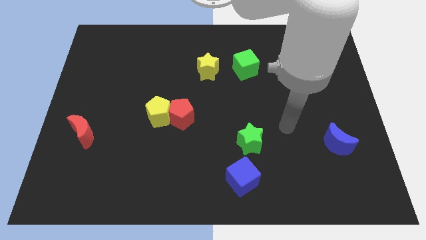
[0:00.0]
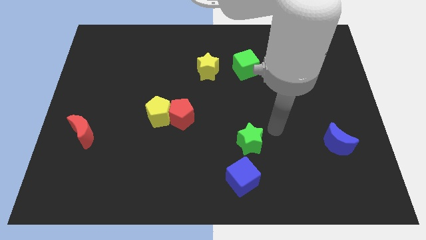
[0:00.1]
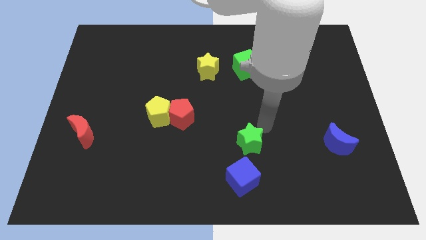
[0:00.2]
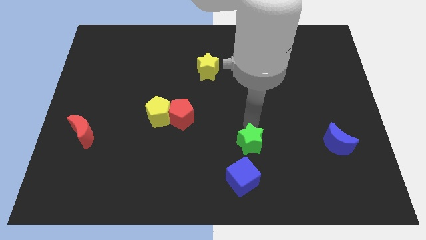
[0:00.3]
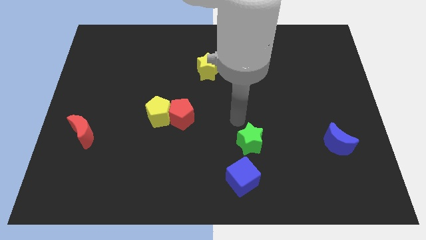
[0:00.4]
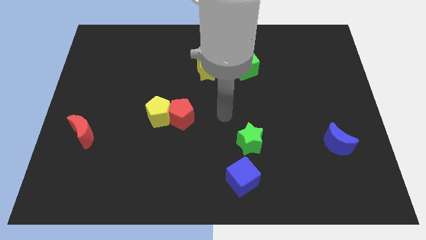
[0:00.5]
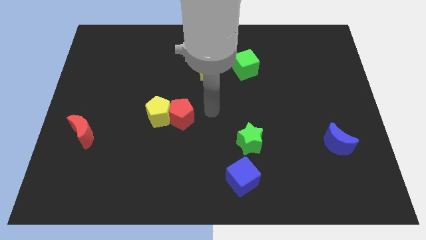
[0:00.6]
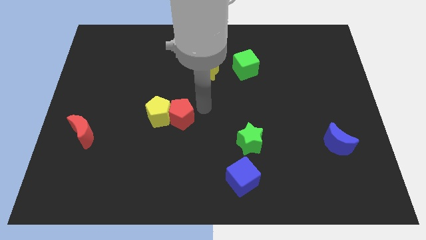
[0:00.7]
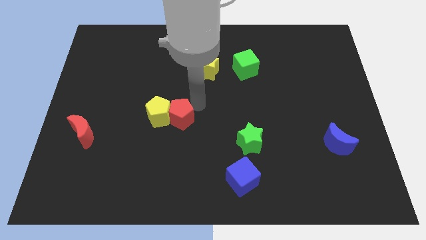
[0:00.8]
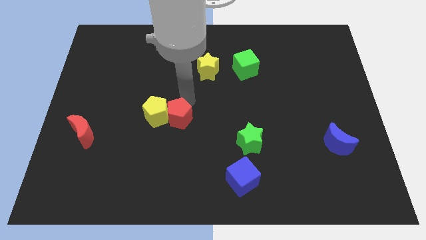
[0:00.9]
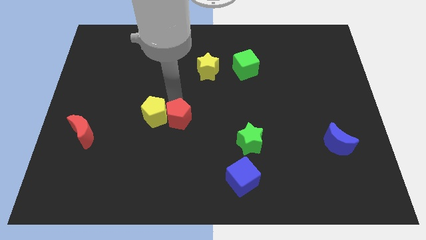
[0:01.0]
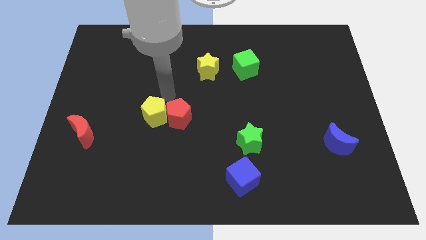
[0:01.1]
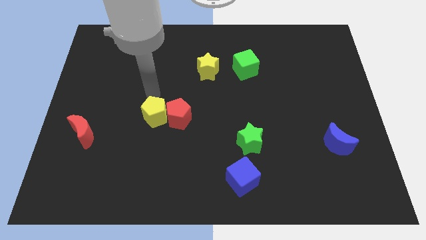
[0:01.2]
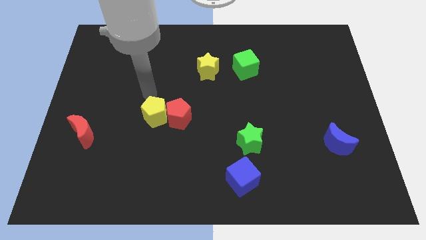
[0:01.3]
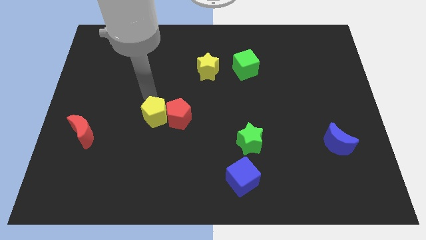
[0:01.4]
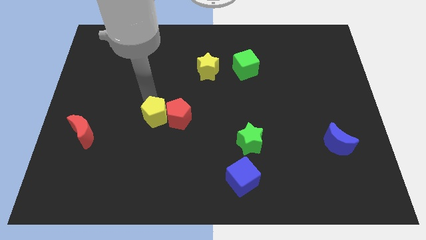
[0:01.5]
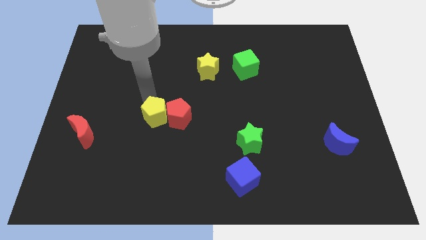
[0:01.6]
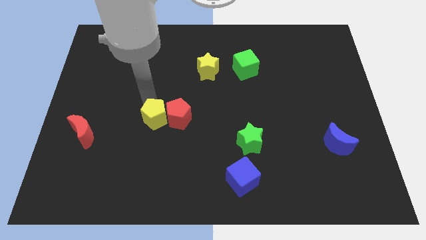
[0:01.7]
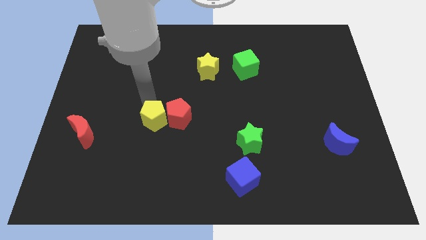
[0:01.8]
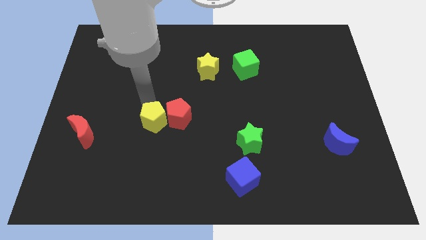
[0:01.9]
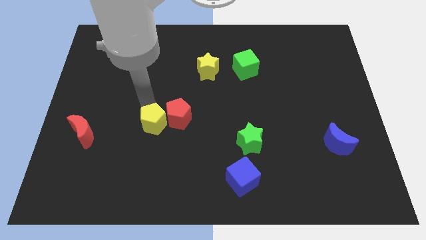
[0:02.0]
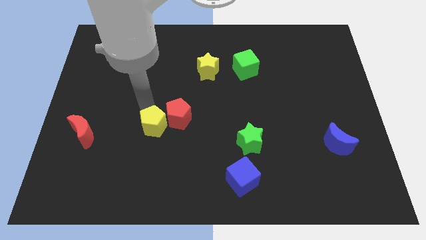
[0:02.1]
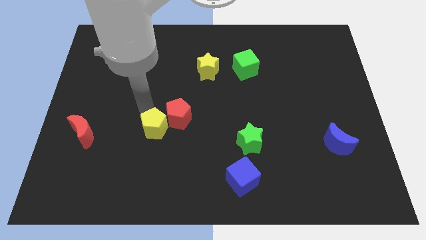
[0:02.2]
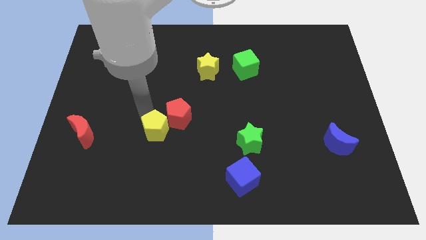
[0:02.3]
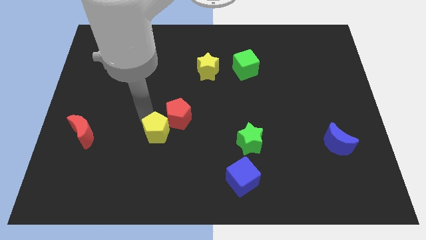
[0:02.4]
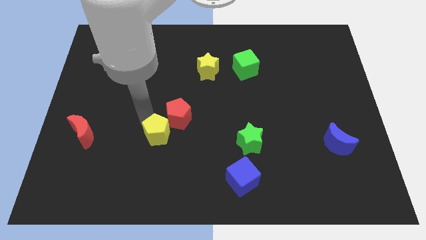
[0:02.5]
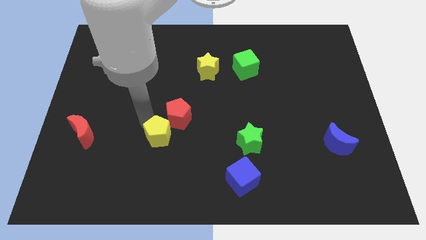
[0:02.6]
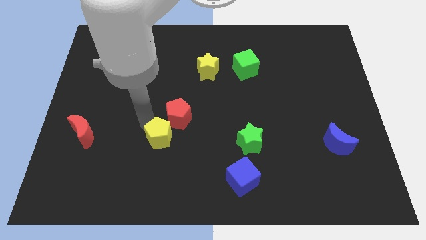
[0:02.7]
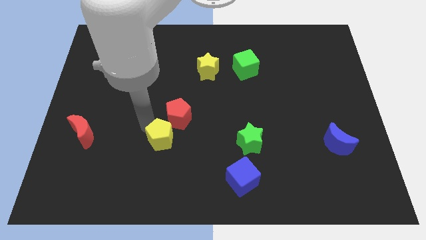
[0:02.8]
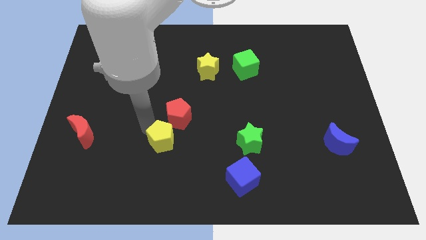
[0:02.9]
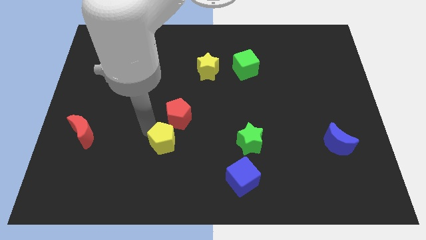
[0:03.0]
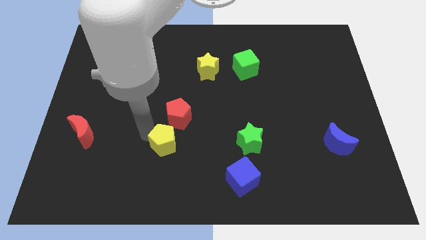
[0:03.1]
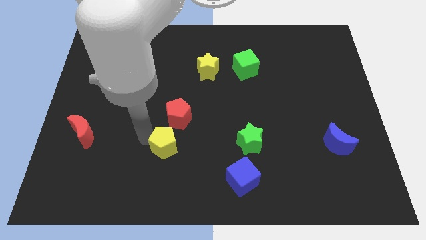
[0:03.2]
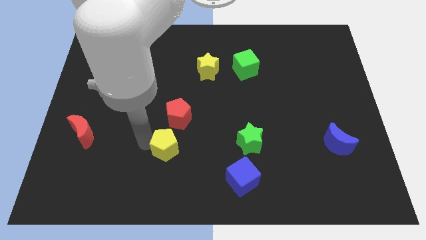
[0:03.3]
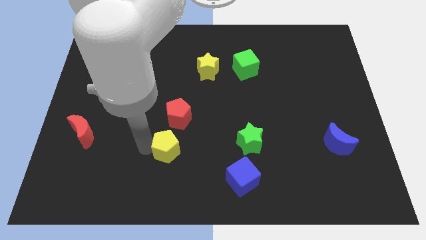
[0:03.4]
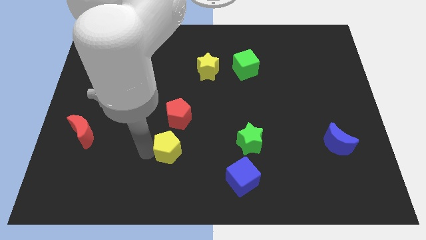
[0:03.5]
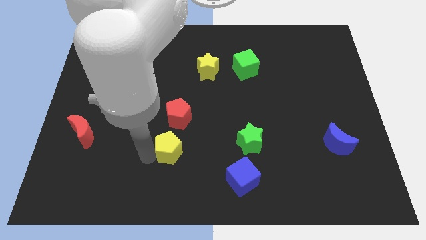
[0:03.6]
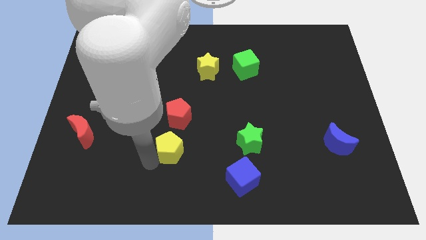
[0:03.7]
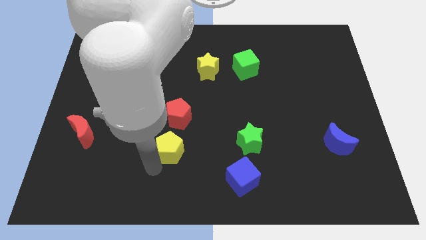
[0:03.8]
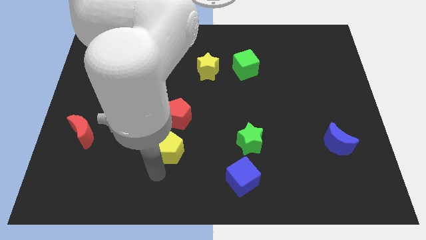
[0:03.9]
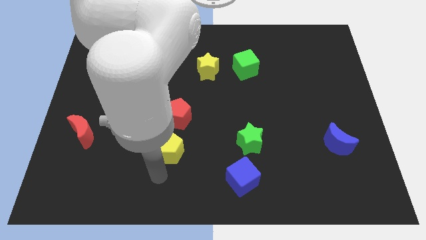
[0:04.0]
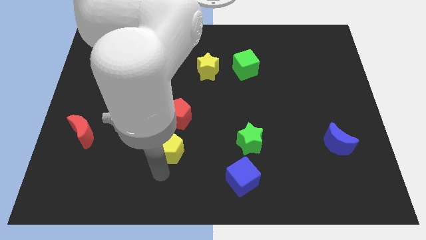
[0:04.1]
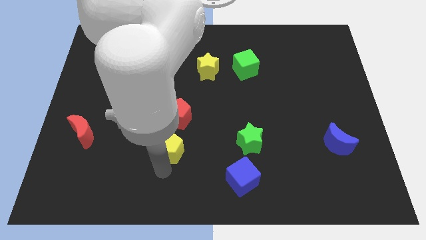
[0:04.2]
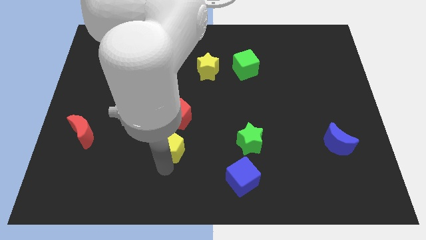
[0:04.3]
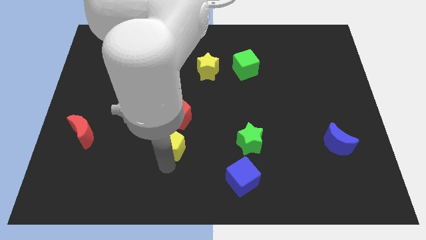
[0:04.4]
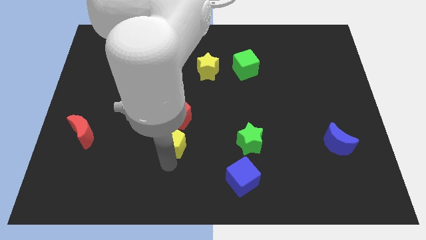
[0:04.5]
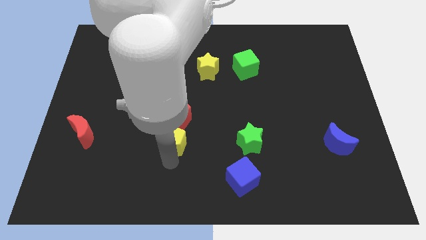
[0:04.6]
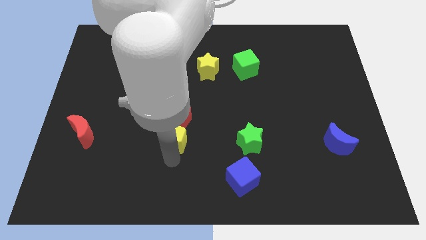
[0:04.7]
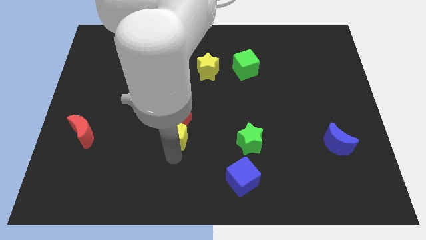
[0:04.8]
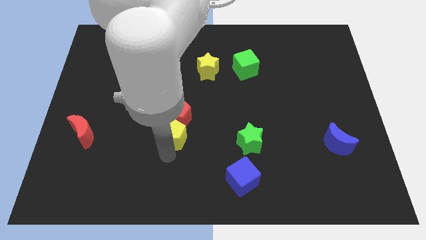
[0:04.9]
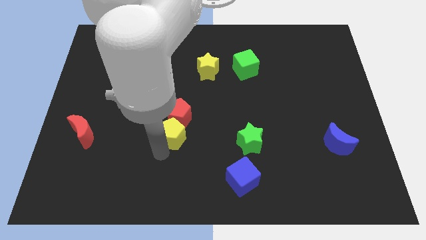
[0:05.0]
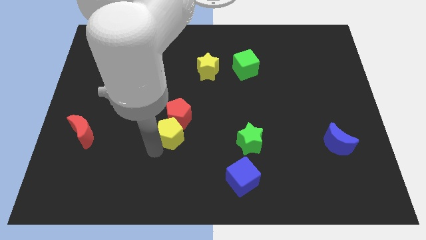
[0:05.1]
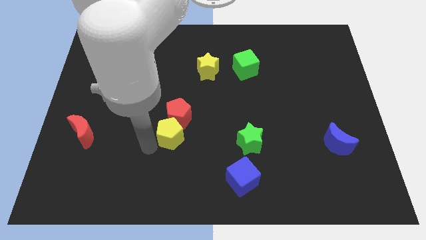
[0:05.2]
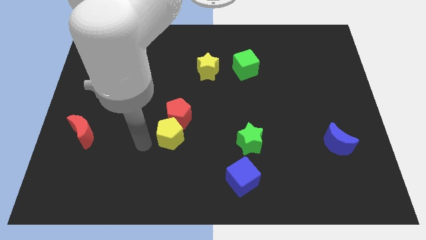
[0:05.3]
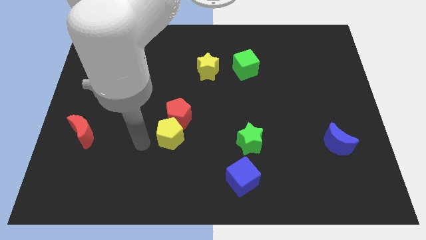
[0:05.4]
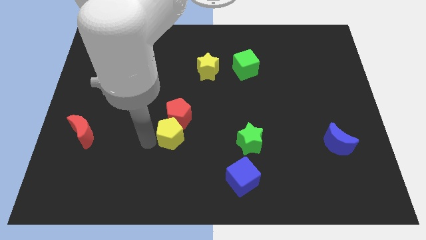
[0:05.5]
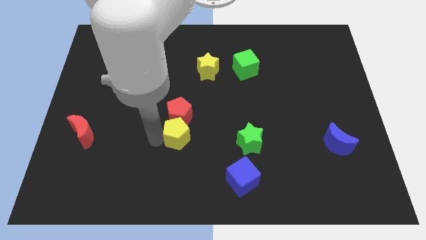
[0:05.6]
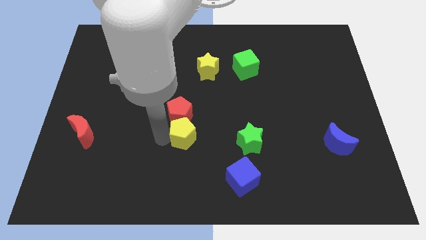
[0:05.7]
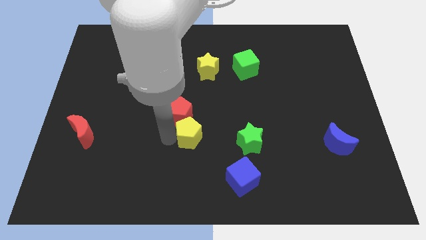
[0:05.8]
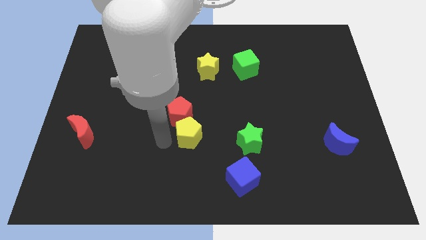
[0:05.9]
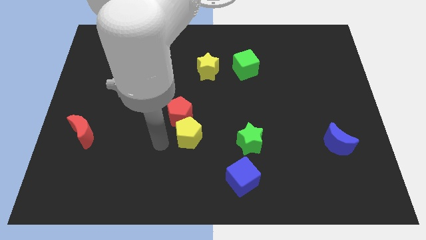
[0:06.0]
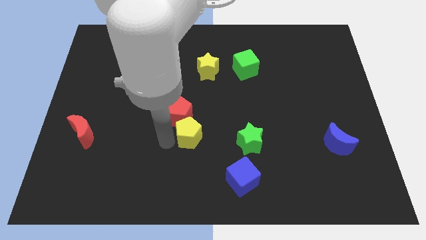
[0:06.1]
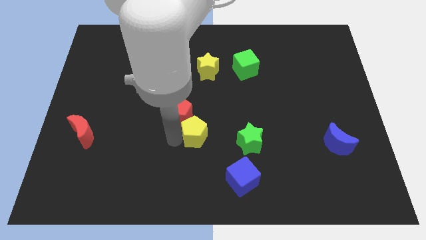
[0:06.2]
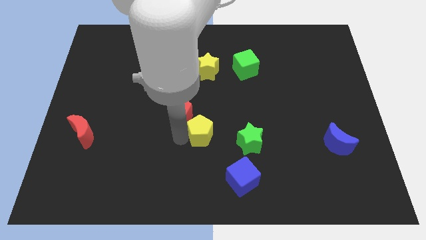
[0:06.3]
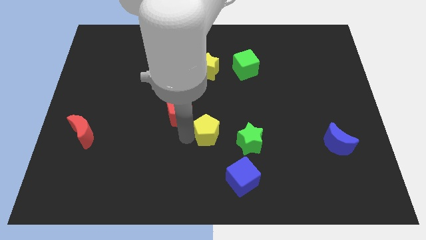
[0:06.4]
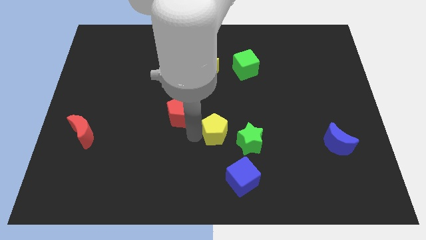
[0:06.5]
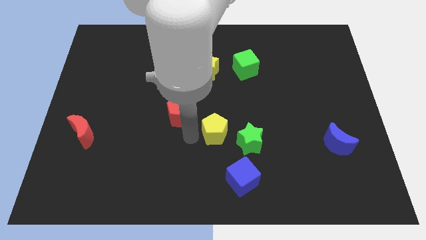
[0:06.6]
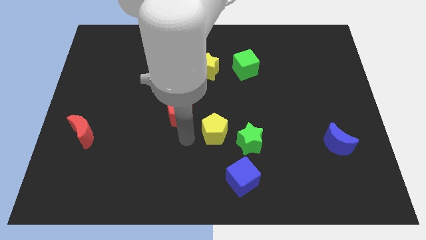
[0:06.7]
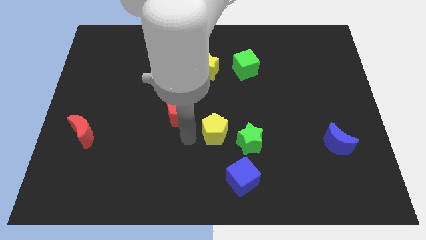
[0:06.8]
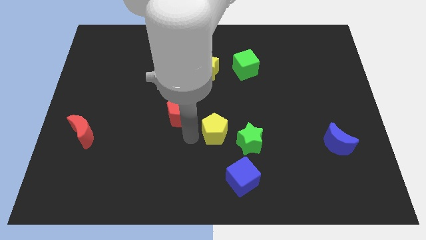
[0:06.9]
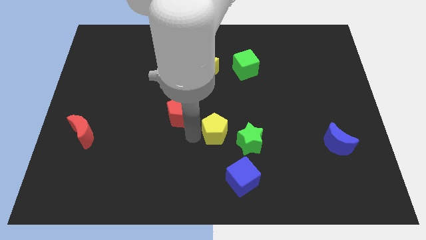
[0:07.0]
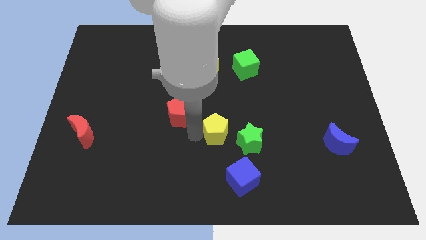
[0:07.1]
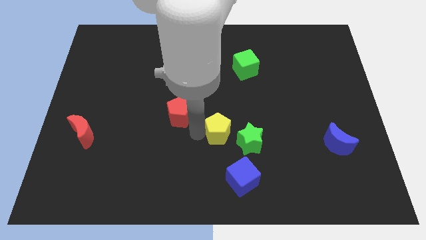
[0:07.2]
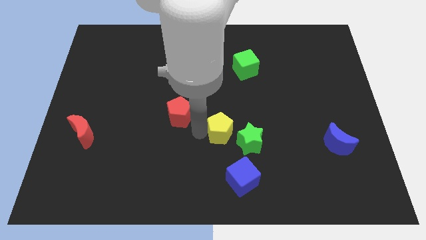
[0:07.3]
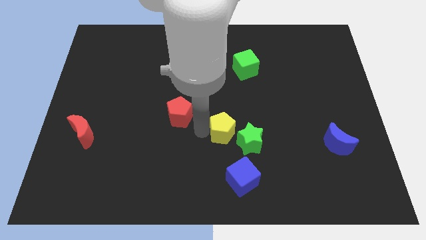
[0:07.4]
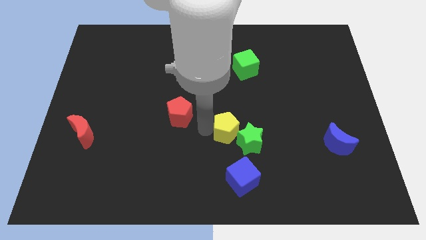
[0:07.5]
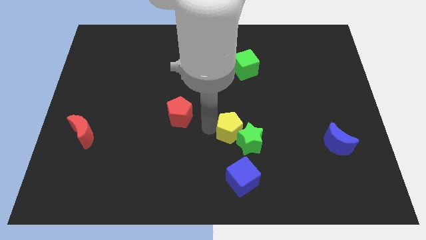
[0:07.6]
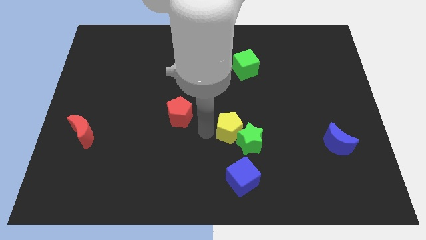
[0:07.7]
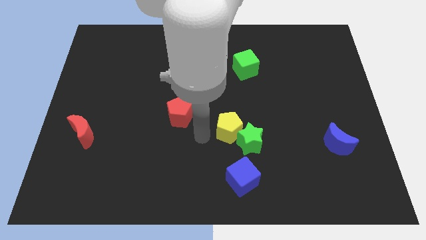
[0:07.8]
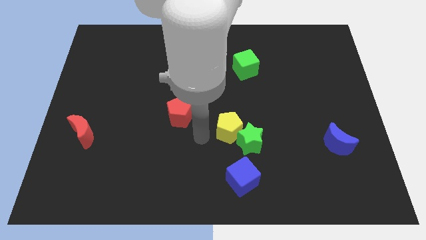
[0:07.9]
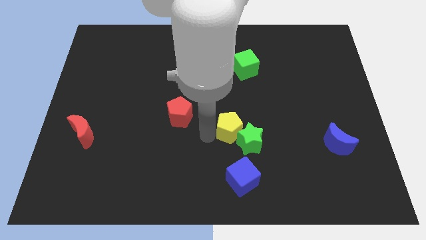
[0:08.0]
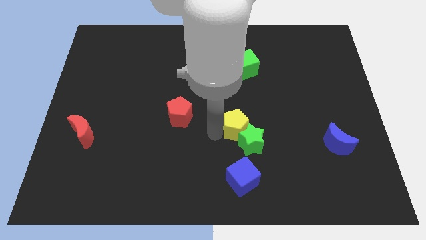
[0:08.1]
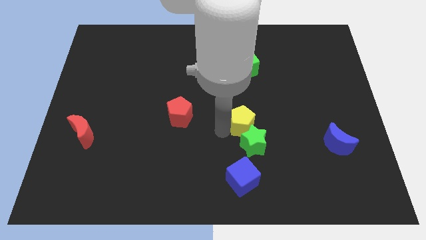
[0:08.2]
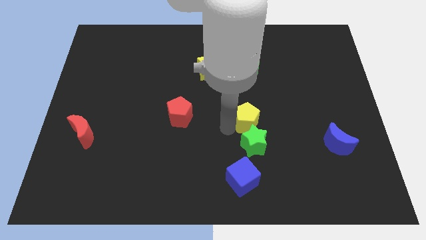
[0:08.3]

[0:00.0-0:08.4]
slide the yellow pentagon to the right
